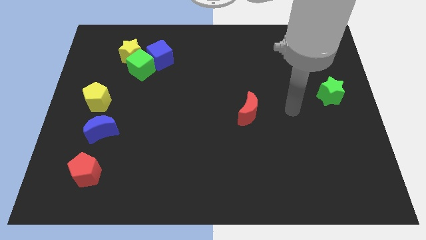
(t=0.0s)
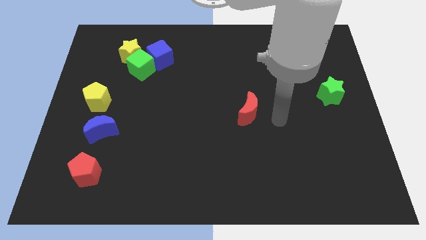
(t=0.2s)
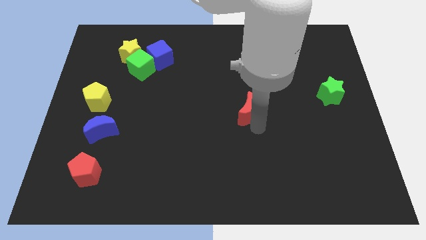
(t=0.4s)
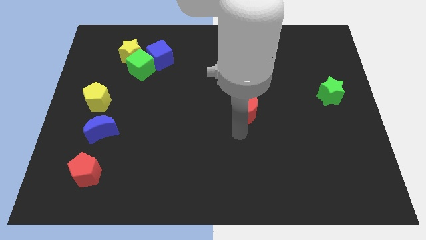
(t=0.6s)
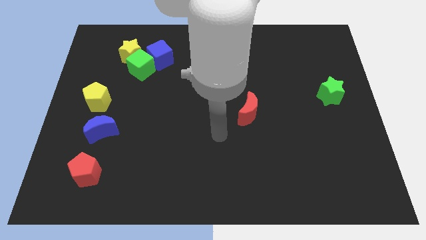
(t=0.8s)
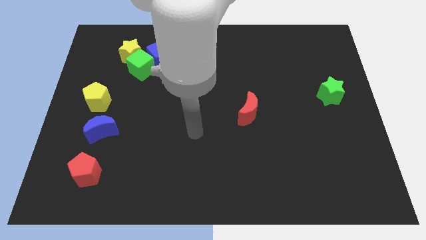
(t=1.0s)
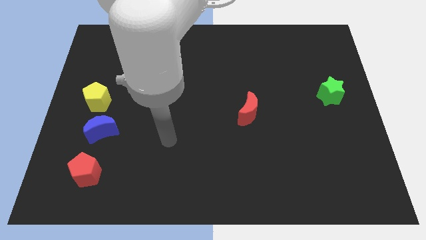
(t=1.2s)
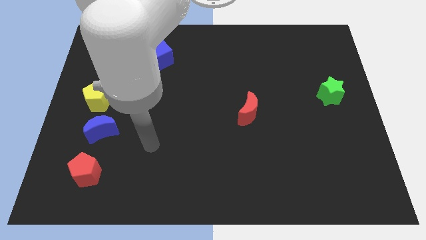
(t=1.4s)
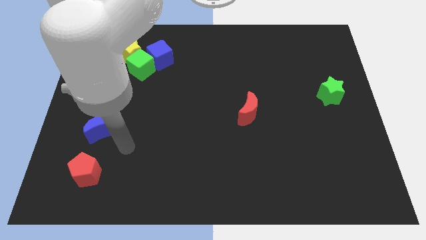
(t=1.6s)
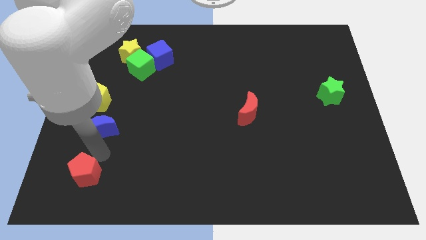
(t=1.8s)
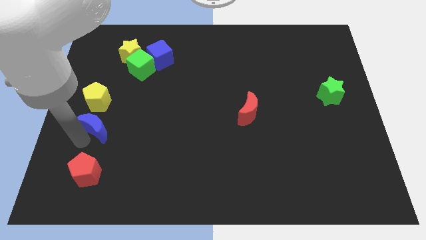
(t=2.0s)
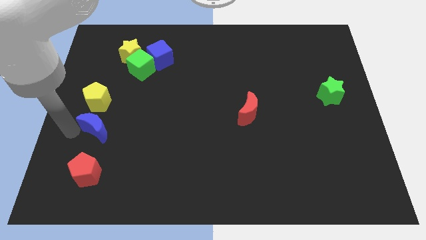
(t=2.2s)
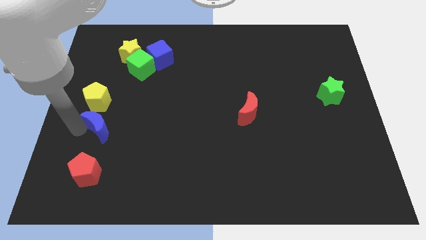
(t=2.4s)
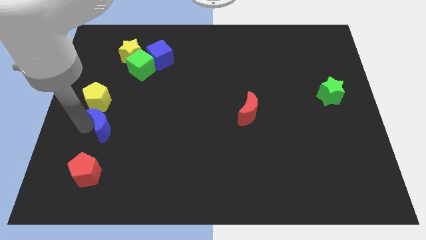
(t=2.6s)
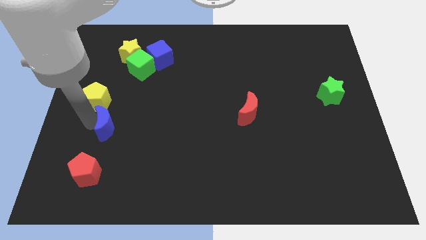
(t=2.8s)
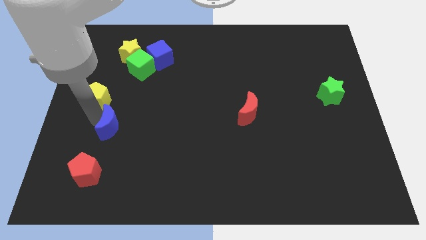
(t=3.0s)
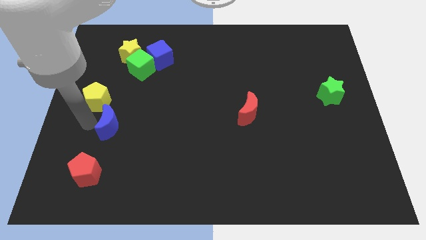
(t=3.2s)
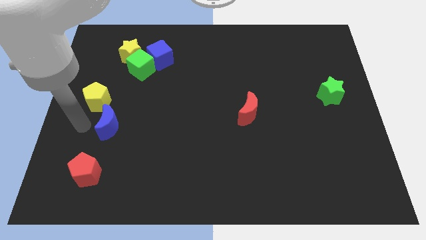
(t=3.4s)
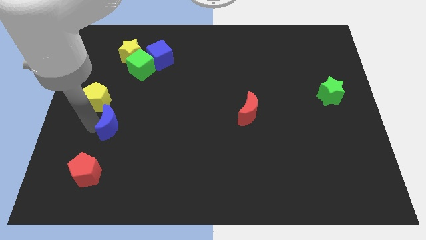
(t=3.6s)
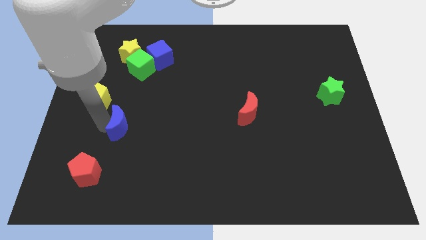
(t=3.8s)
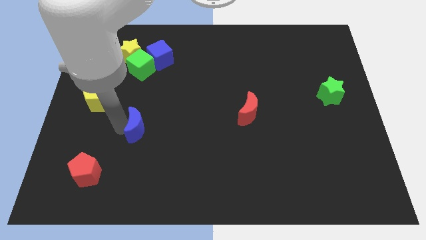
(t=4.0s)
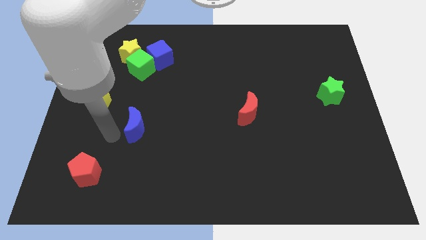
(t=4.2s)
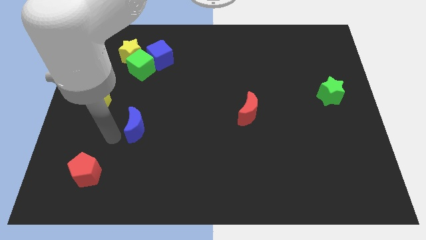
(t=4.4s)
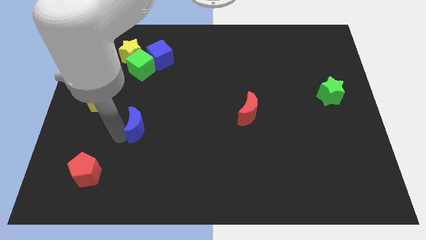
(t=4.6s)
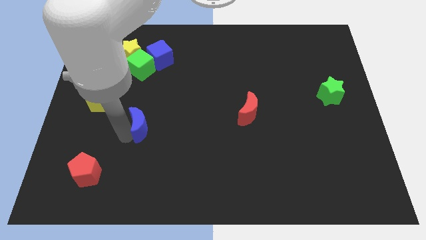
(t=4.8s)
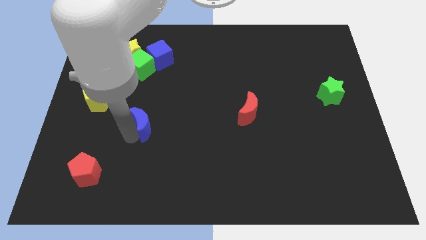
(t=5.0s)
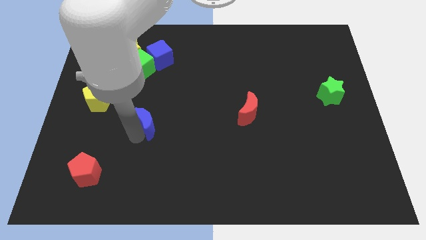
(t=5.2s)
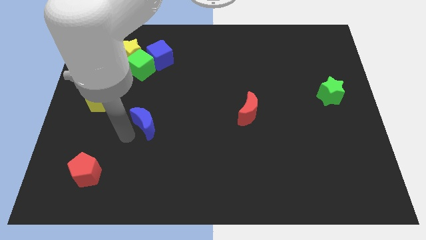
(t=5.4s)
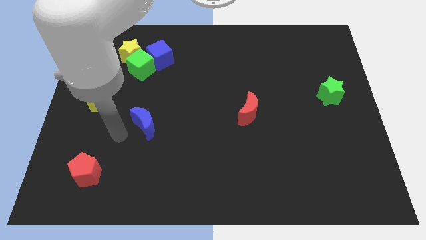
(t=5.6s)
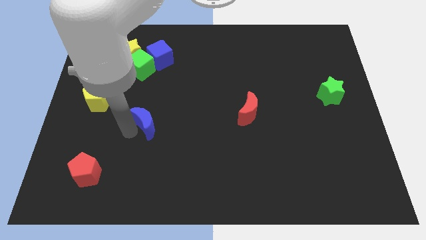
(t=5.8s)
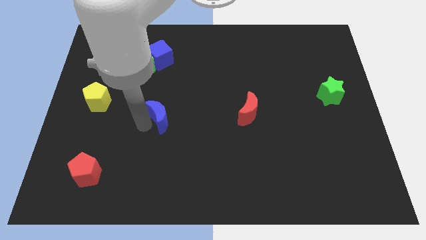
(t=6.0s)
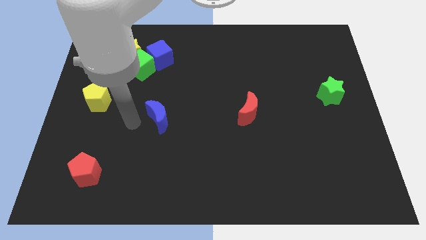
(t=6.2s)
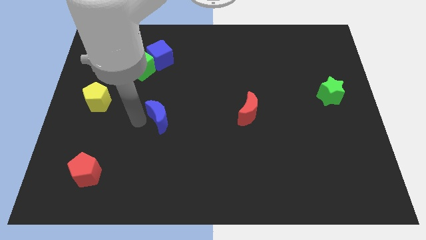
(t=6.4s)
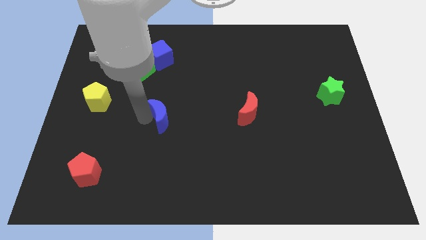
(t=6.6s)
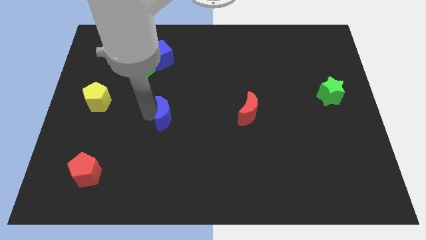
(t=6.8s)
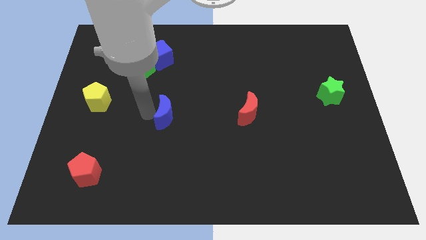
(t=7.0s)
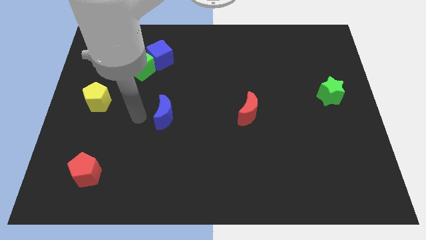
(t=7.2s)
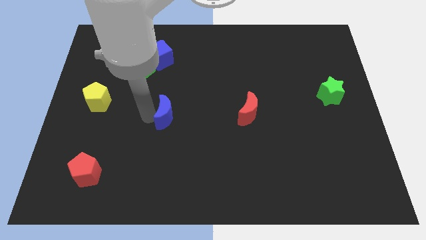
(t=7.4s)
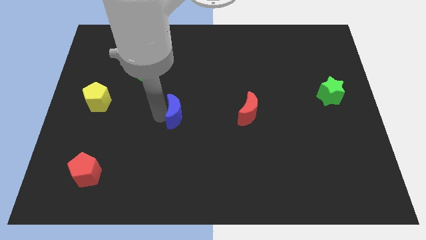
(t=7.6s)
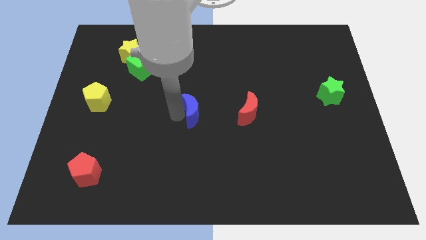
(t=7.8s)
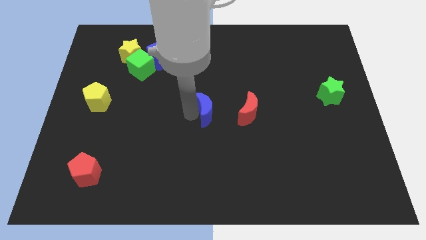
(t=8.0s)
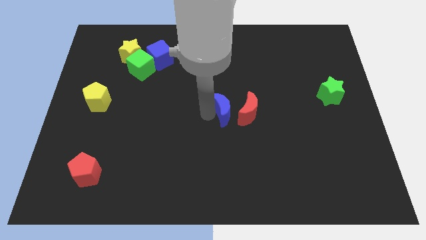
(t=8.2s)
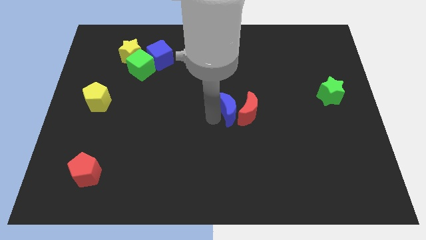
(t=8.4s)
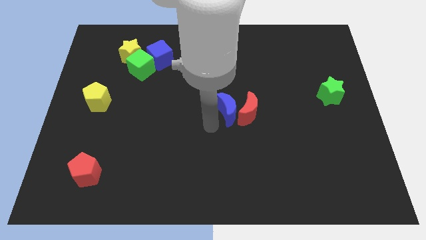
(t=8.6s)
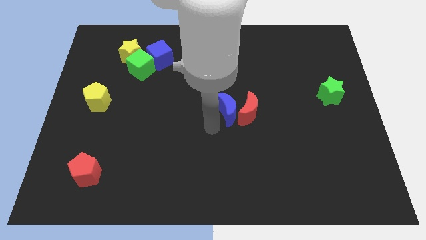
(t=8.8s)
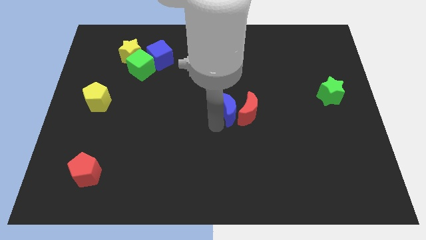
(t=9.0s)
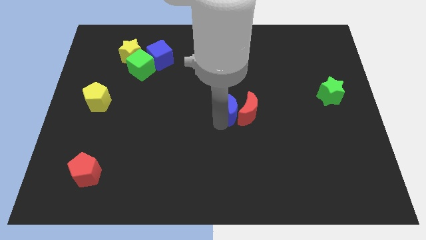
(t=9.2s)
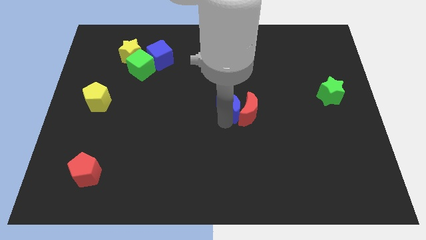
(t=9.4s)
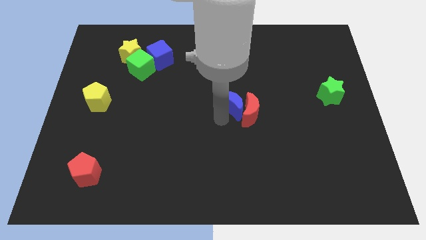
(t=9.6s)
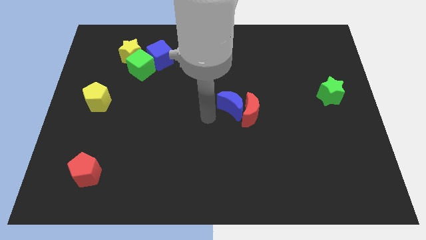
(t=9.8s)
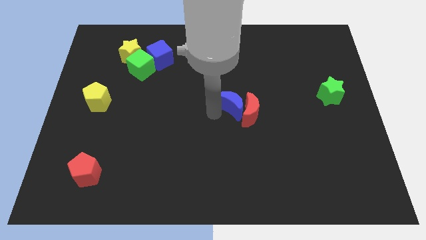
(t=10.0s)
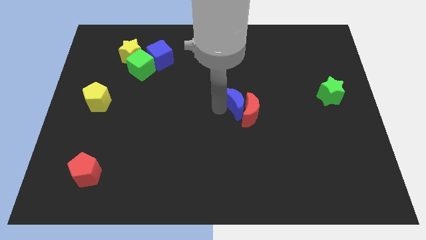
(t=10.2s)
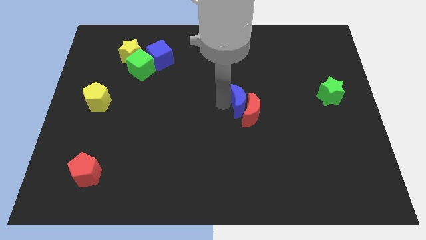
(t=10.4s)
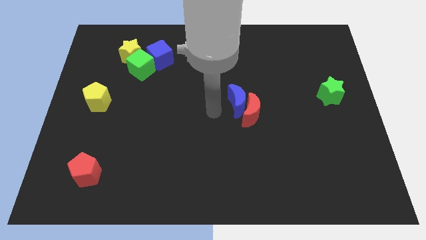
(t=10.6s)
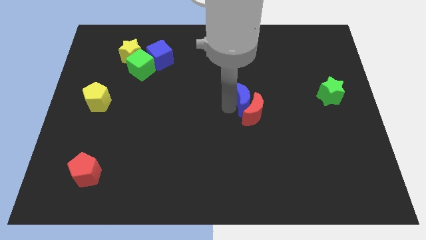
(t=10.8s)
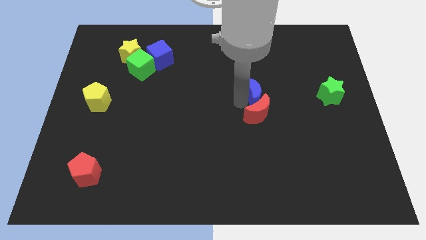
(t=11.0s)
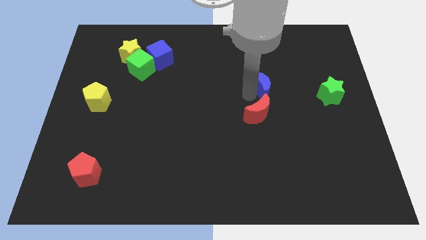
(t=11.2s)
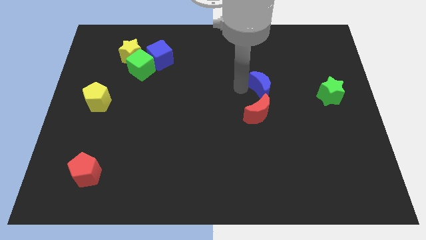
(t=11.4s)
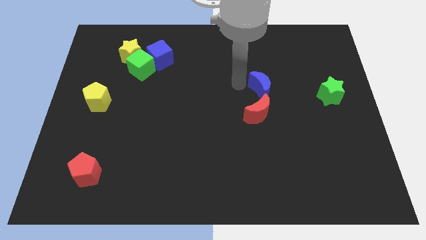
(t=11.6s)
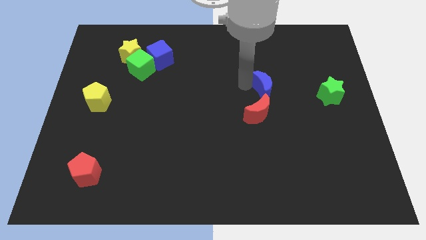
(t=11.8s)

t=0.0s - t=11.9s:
push the blue moon left of the green star

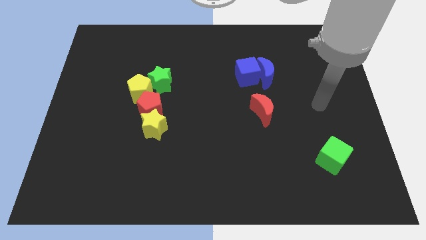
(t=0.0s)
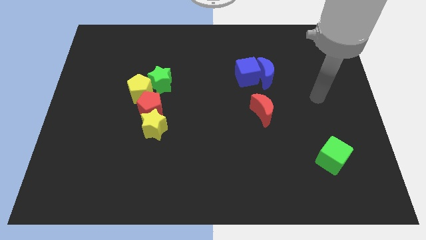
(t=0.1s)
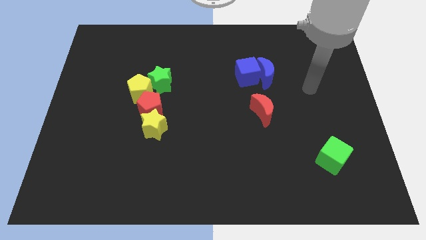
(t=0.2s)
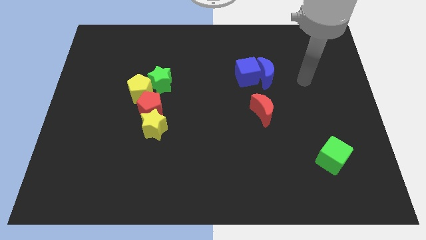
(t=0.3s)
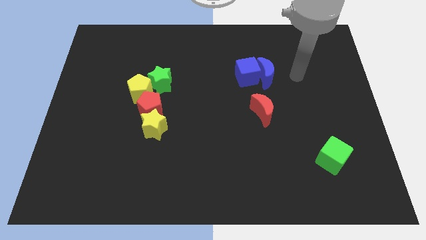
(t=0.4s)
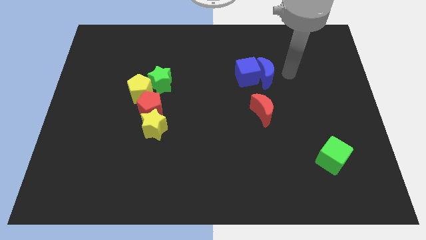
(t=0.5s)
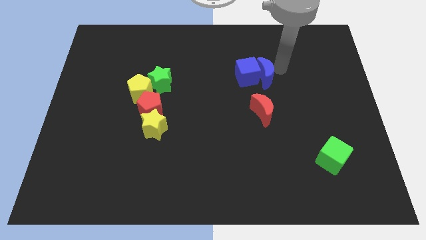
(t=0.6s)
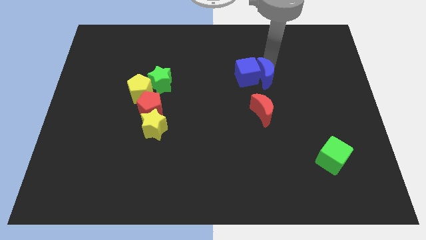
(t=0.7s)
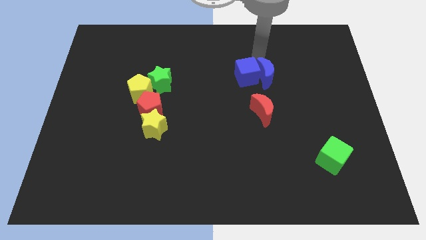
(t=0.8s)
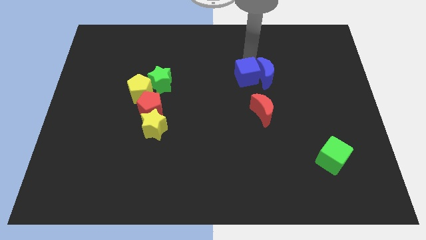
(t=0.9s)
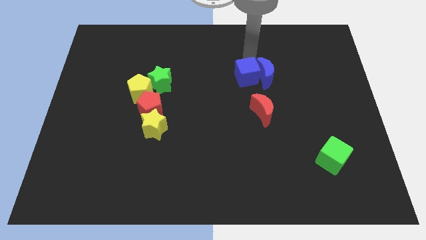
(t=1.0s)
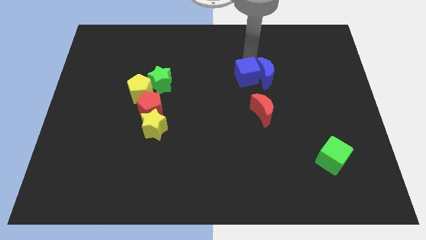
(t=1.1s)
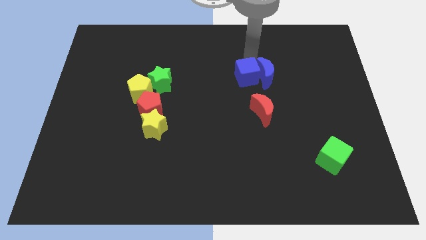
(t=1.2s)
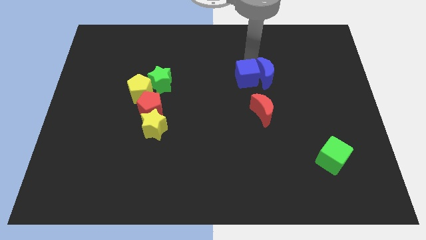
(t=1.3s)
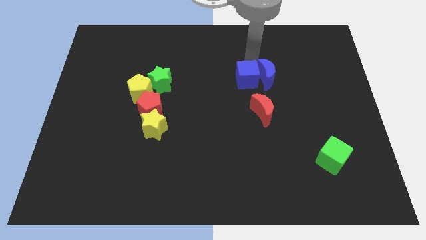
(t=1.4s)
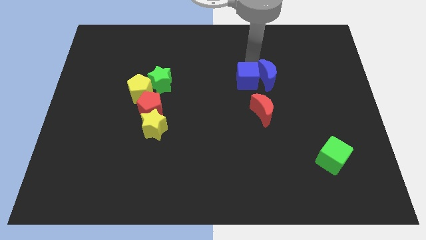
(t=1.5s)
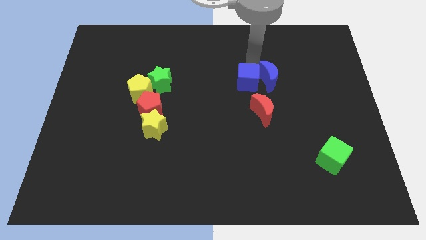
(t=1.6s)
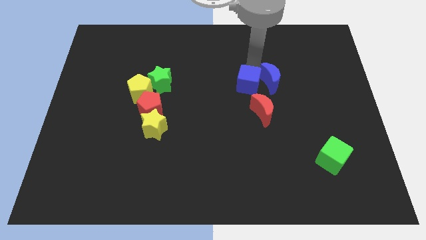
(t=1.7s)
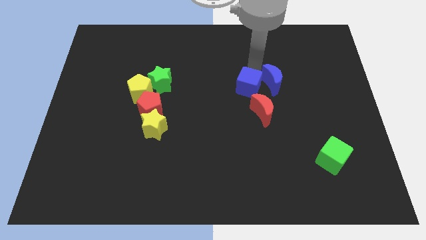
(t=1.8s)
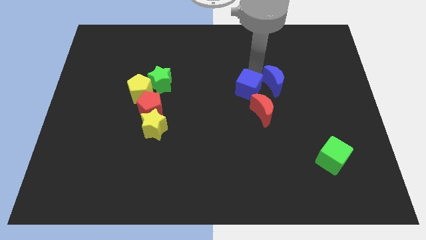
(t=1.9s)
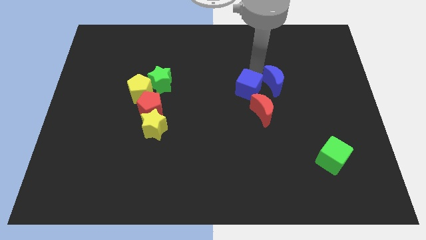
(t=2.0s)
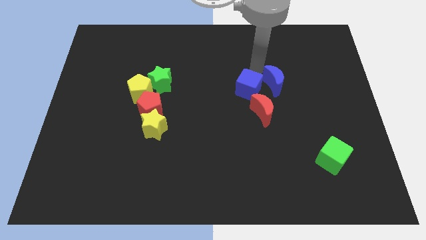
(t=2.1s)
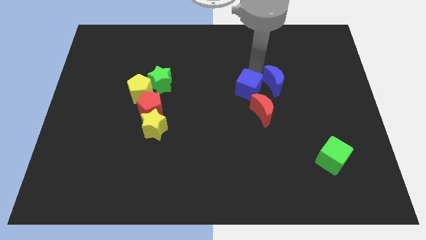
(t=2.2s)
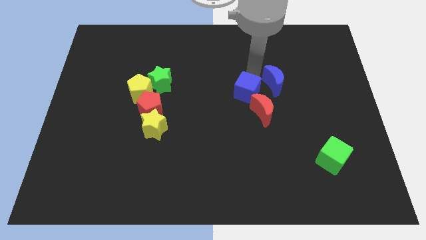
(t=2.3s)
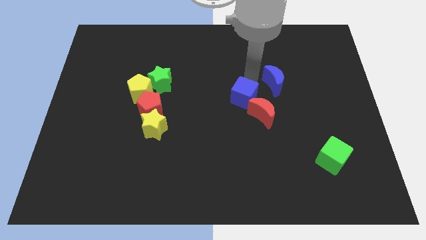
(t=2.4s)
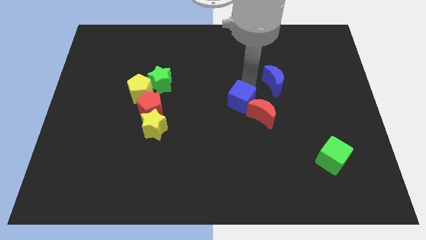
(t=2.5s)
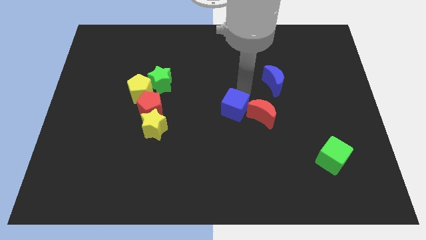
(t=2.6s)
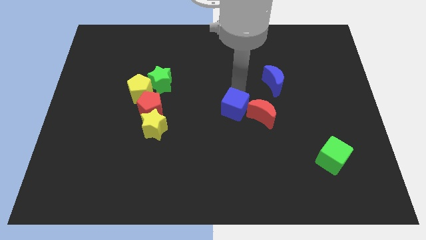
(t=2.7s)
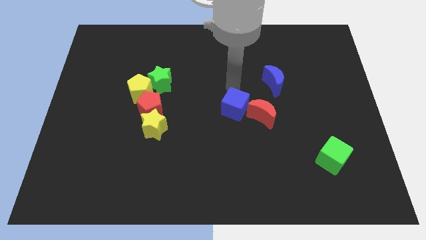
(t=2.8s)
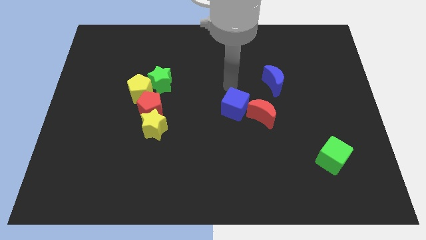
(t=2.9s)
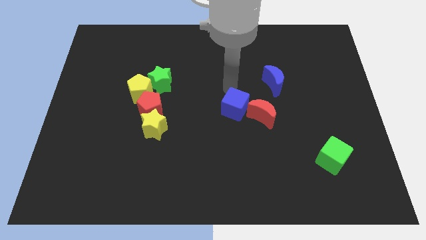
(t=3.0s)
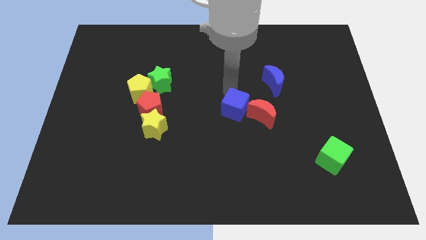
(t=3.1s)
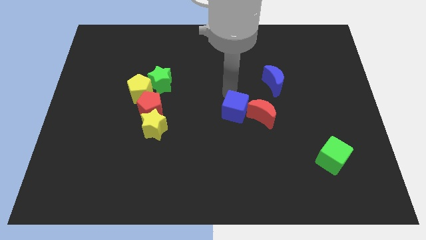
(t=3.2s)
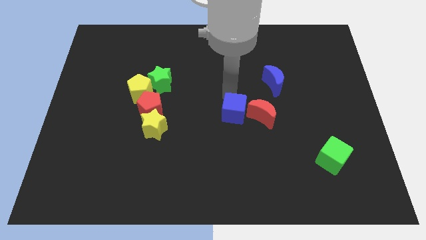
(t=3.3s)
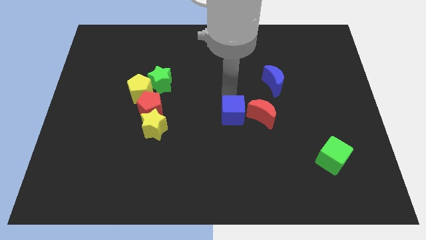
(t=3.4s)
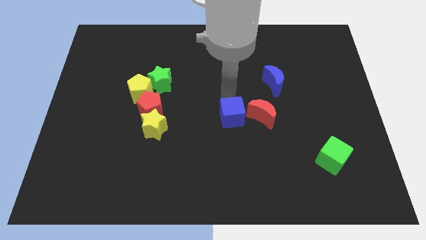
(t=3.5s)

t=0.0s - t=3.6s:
push the blue cube diagonally down and to the left of the red moon
